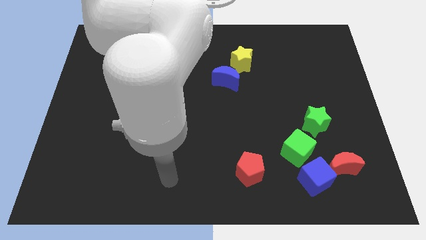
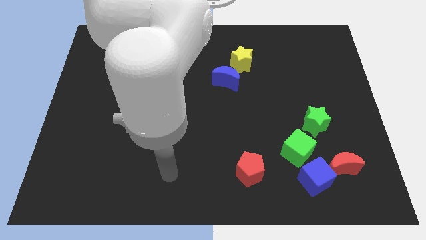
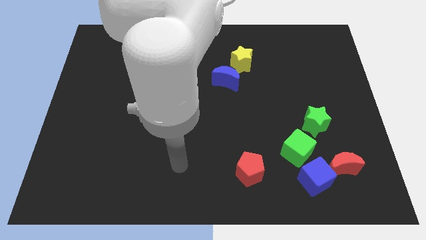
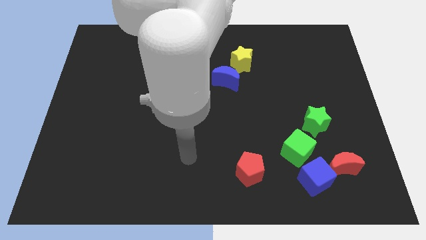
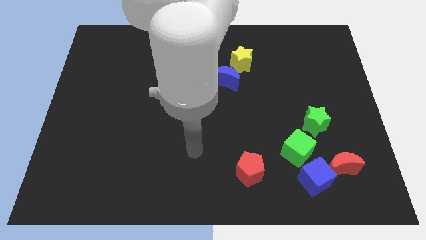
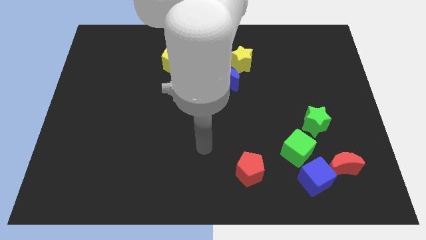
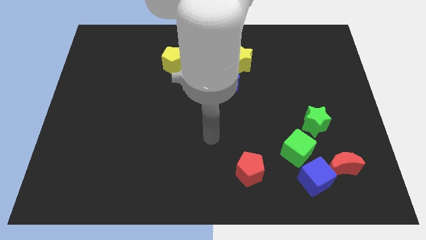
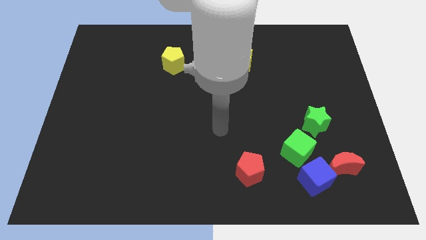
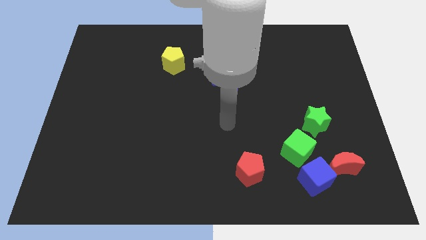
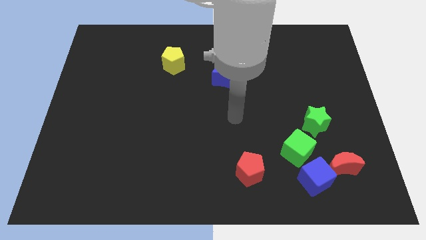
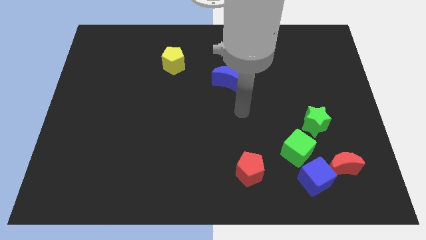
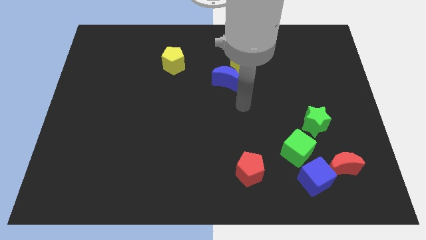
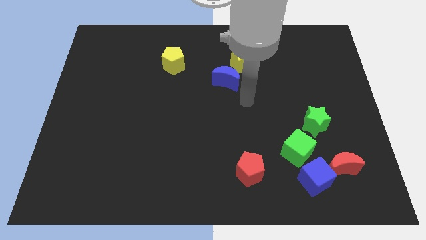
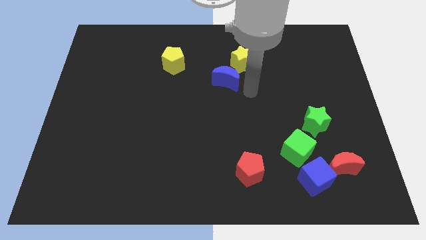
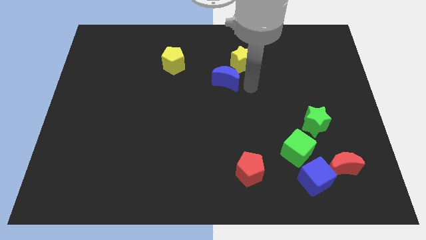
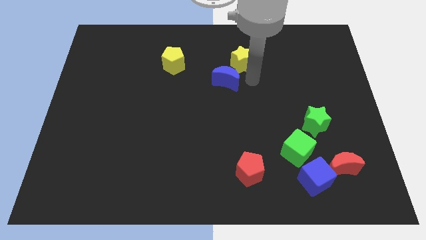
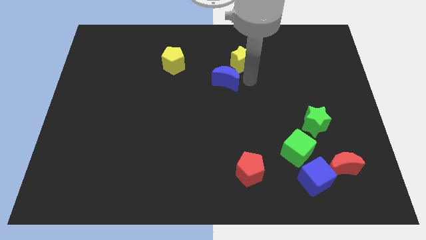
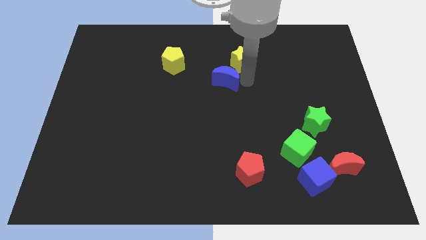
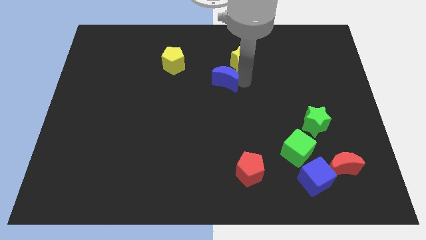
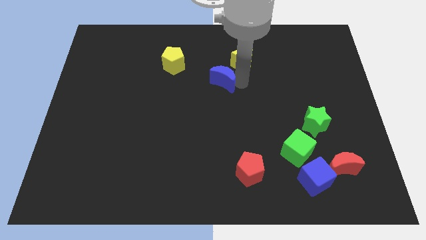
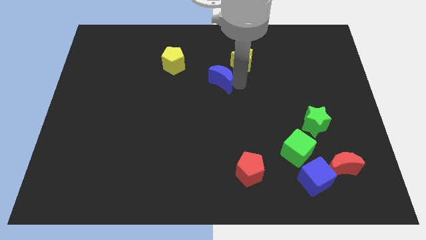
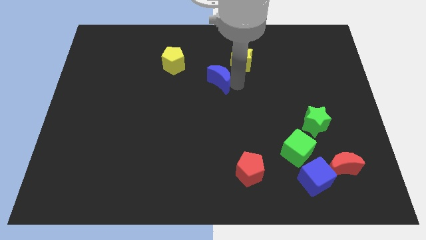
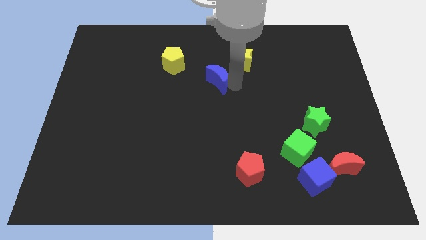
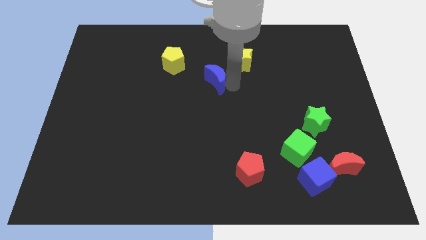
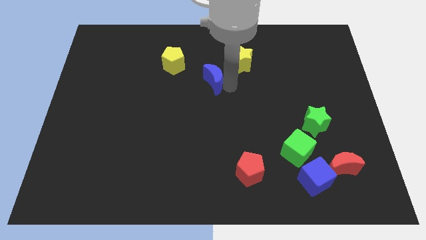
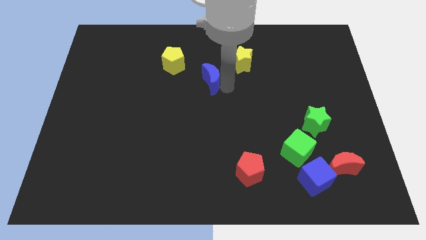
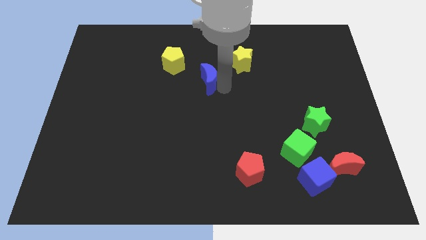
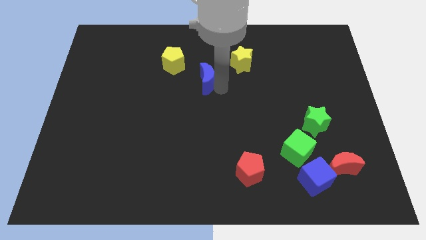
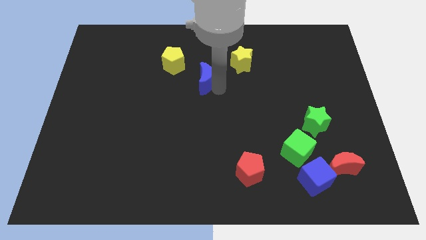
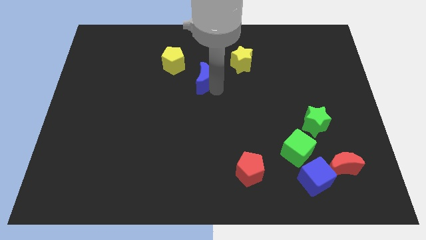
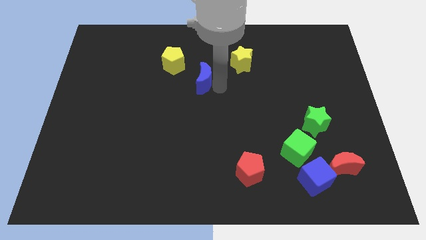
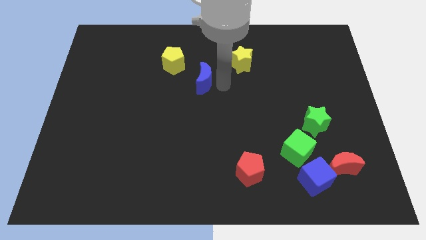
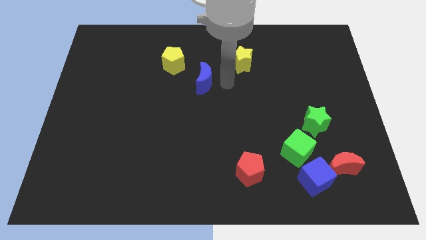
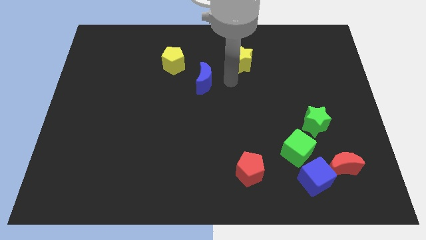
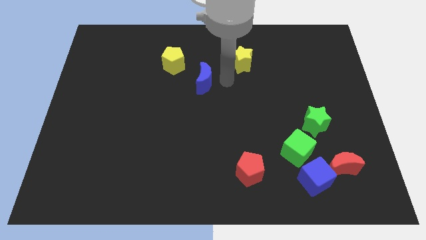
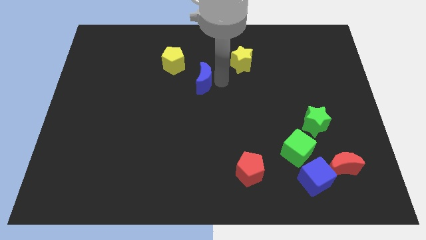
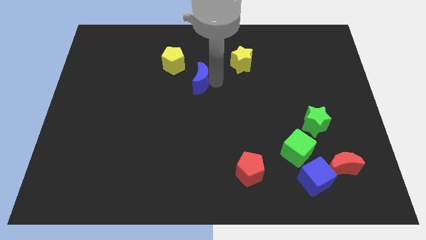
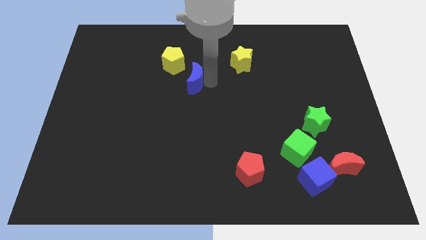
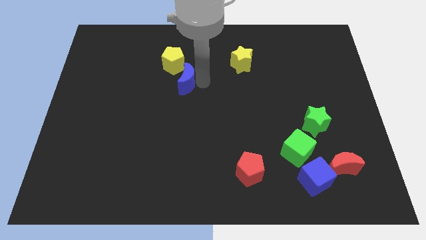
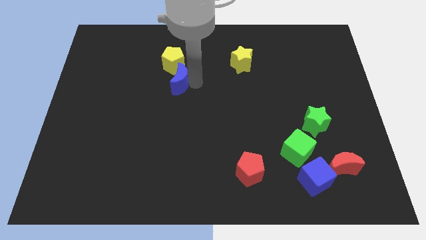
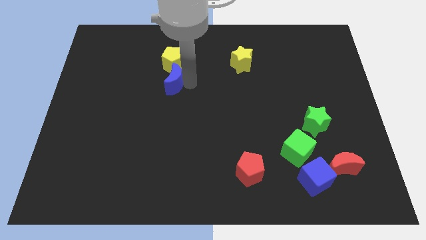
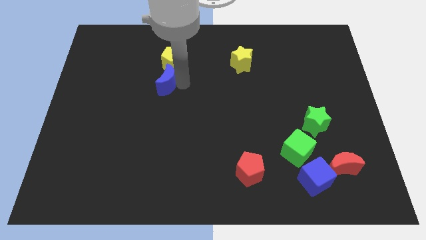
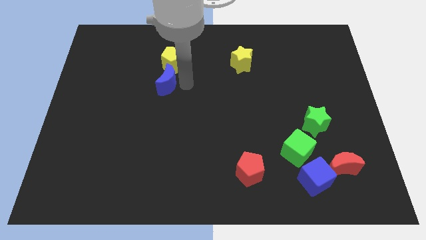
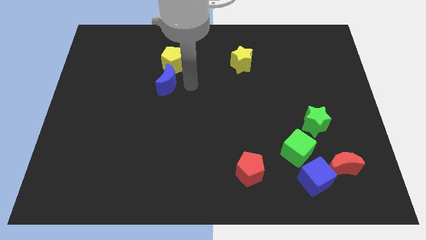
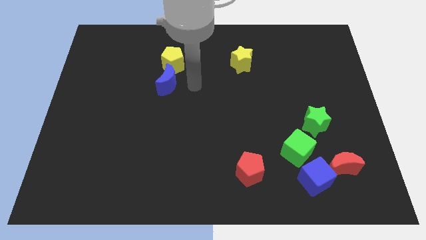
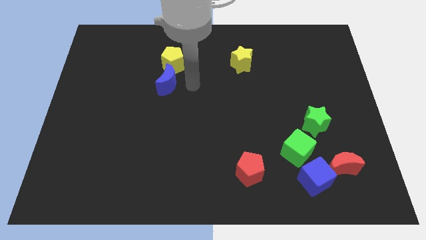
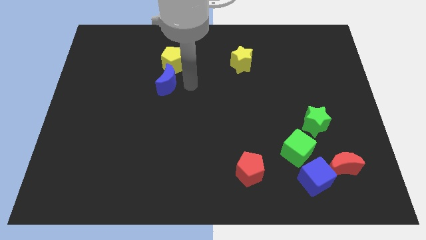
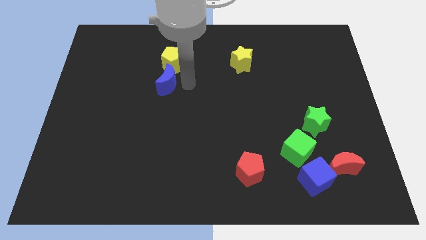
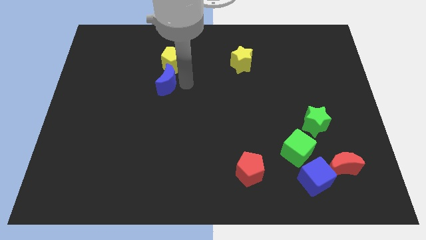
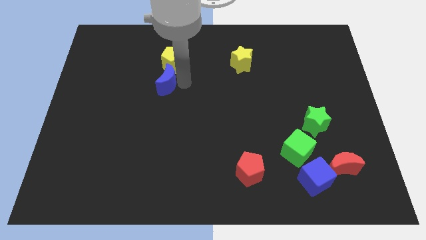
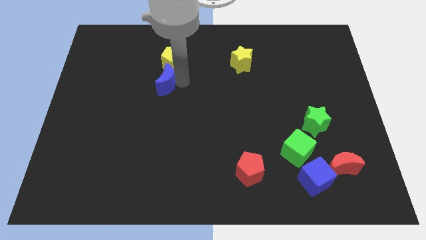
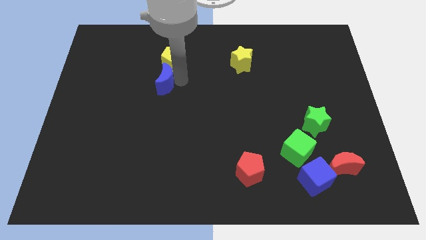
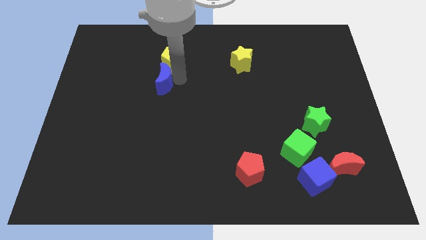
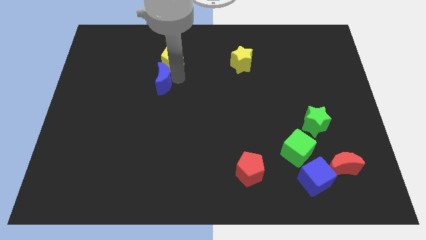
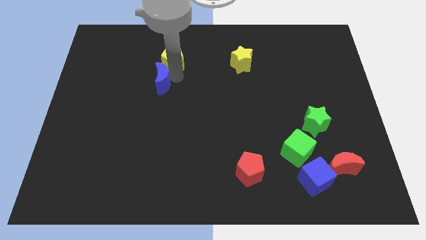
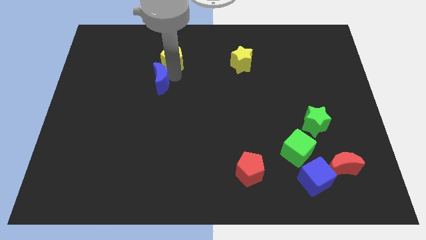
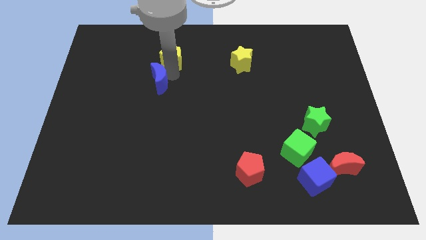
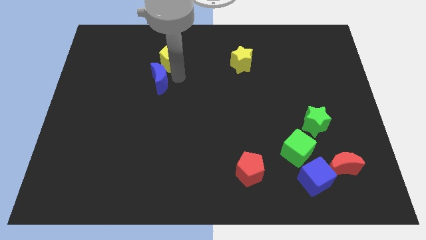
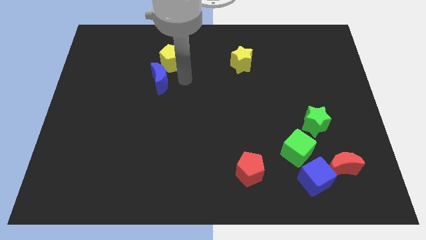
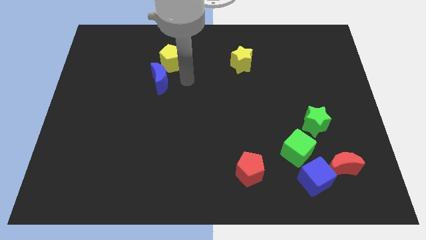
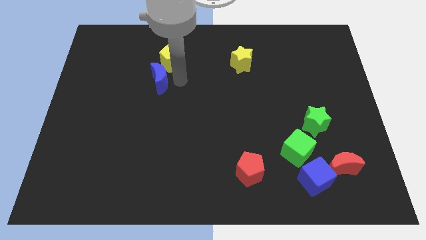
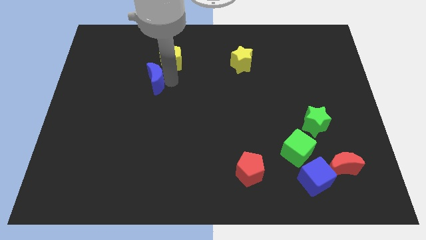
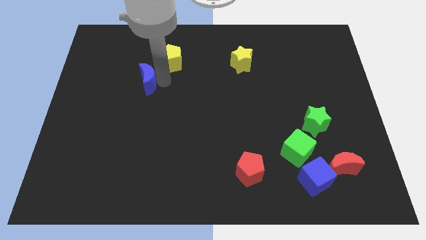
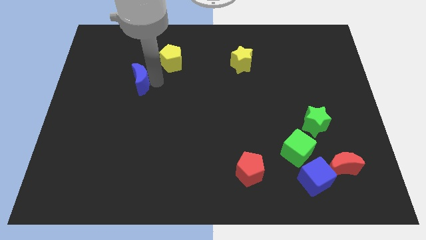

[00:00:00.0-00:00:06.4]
push the blue moon to the left

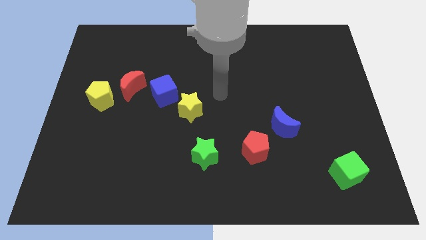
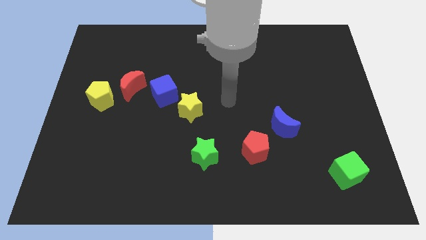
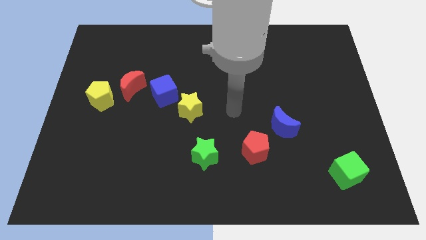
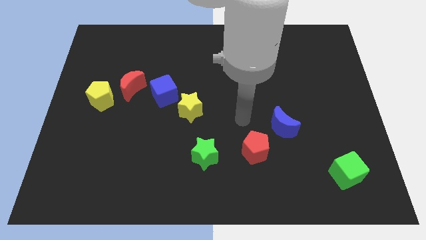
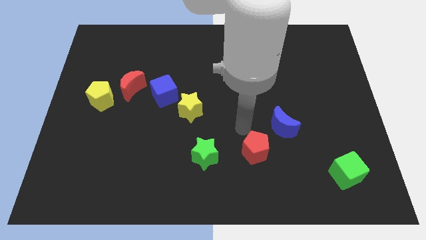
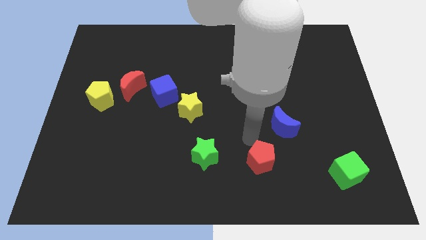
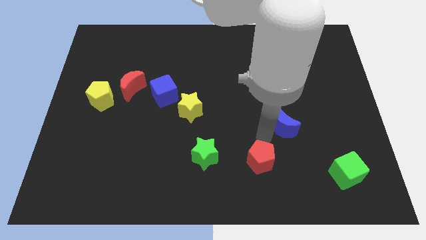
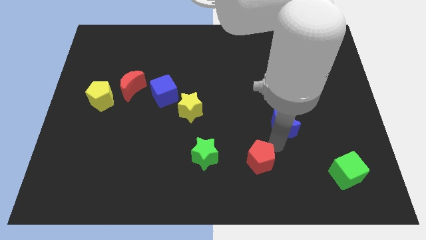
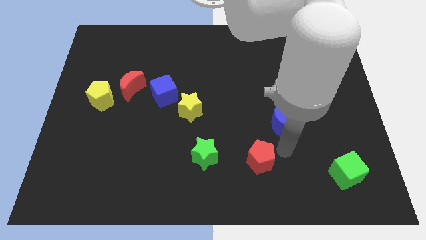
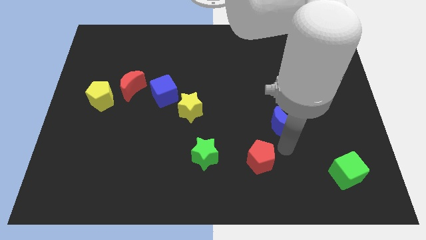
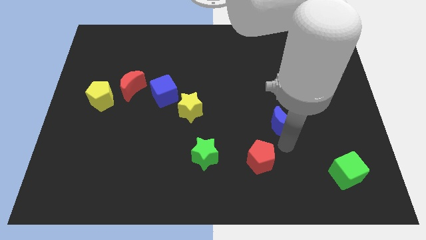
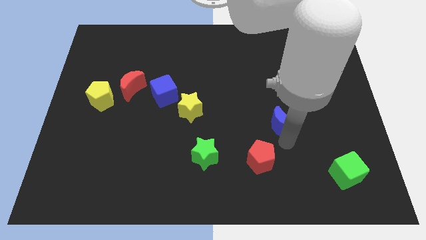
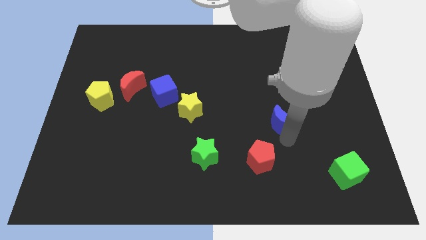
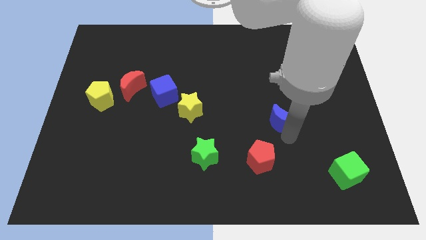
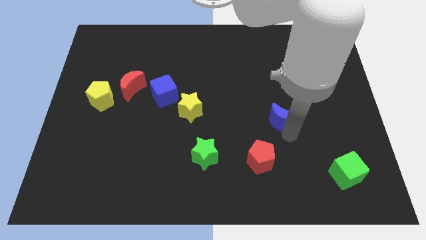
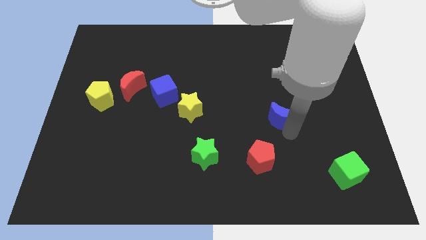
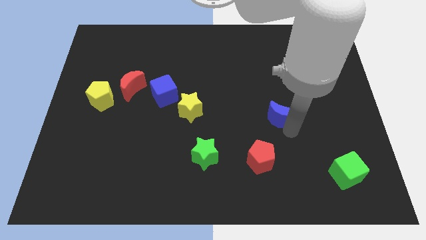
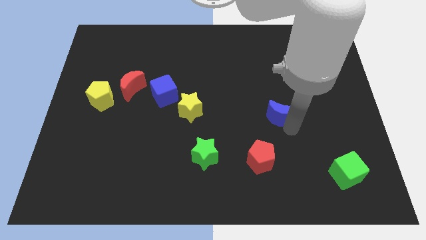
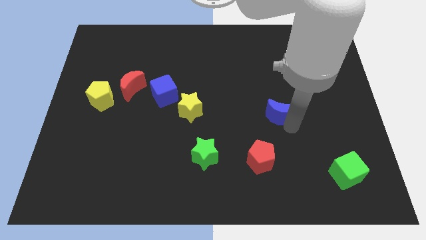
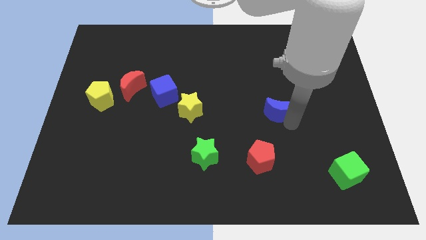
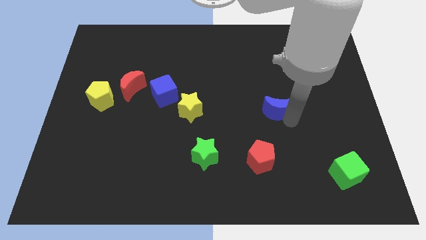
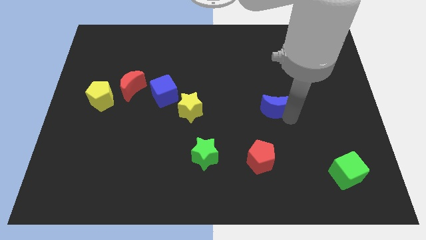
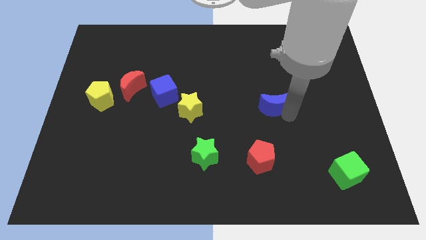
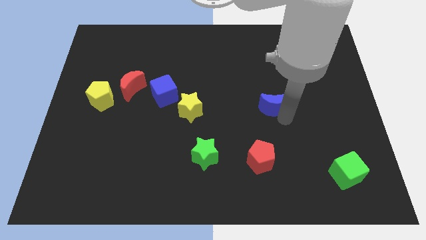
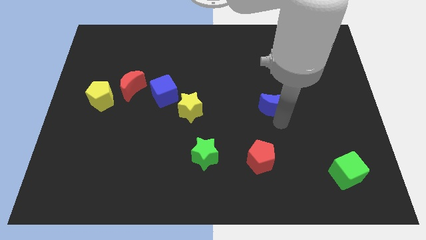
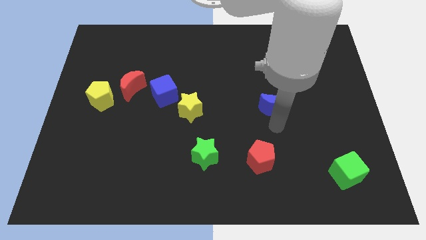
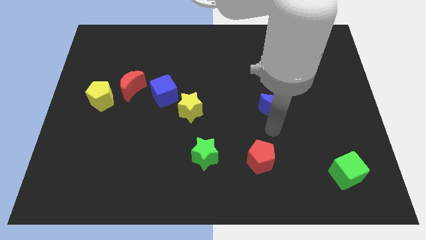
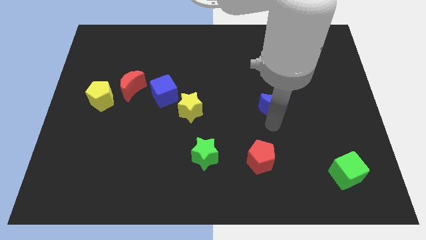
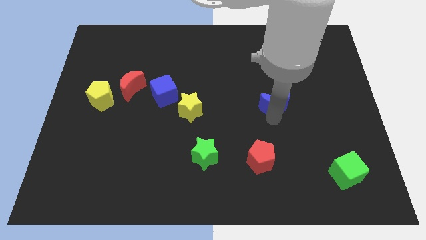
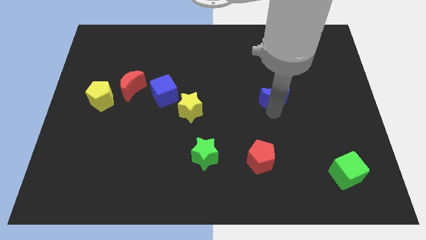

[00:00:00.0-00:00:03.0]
push the blue moon a little upwards
